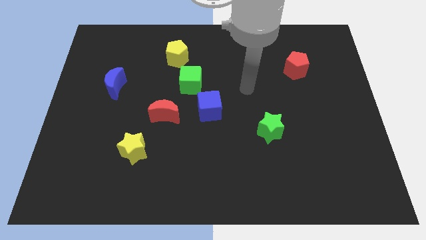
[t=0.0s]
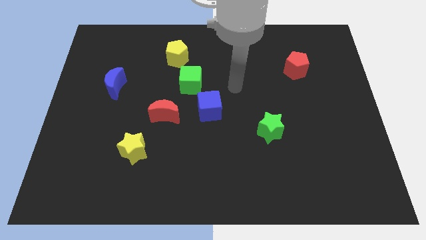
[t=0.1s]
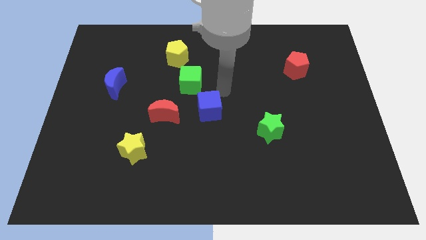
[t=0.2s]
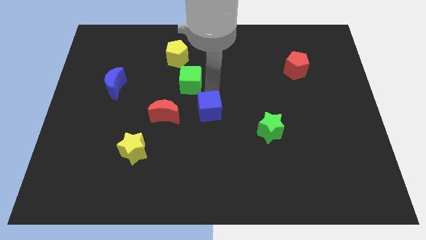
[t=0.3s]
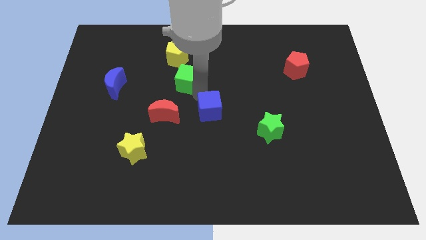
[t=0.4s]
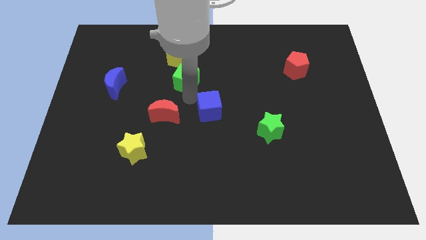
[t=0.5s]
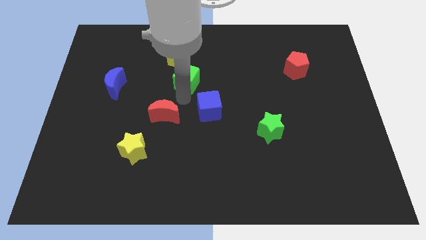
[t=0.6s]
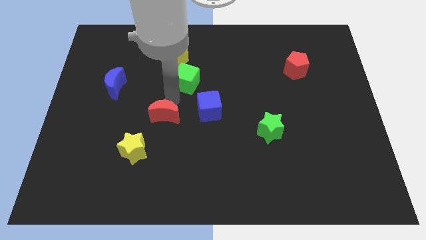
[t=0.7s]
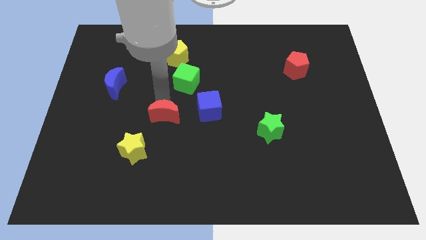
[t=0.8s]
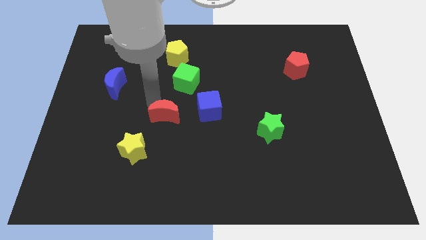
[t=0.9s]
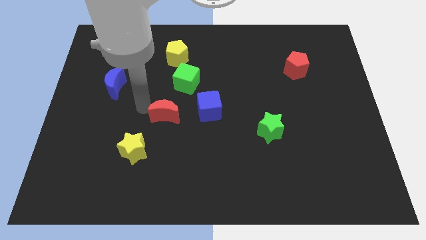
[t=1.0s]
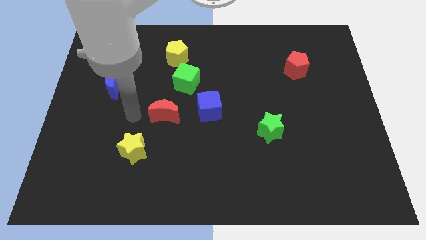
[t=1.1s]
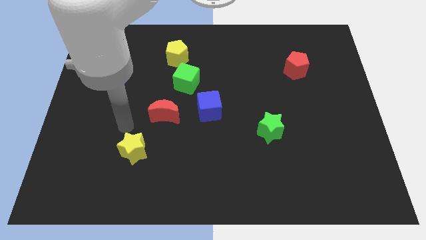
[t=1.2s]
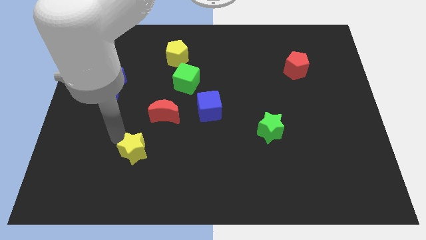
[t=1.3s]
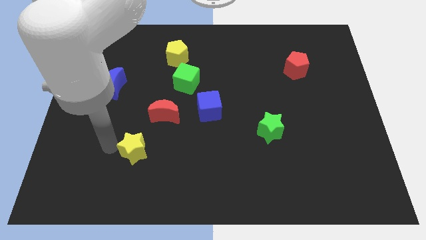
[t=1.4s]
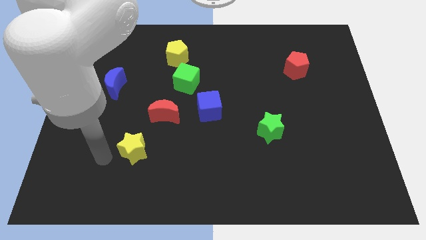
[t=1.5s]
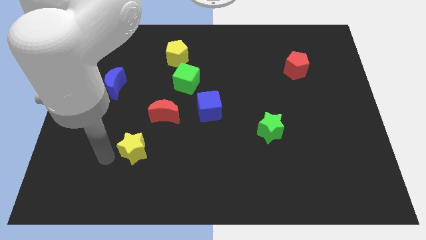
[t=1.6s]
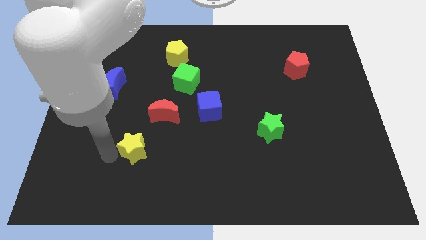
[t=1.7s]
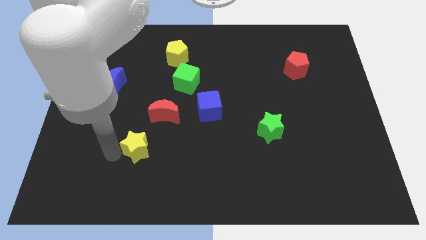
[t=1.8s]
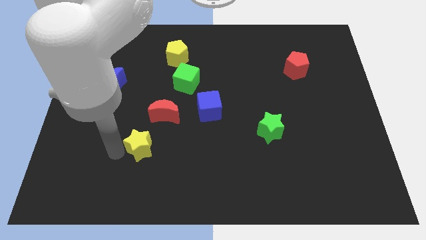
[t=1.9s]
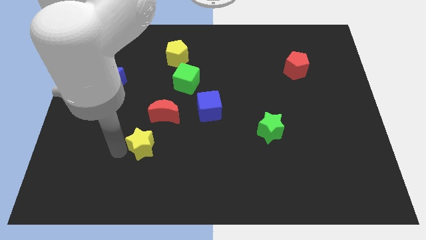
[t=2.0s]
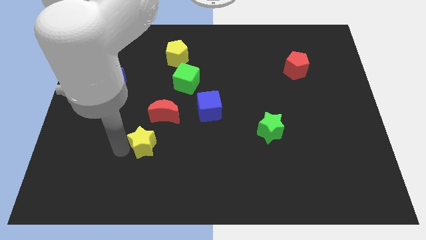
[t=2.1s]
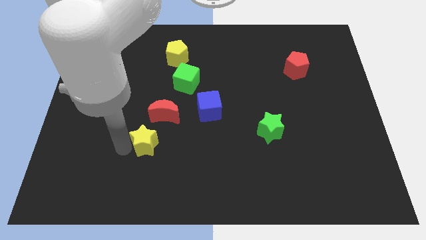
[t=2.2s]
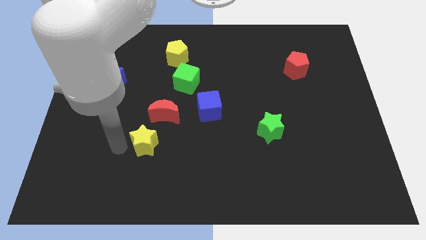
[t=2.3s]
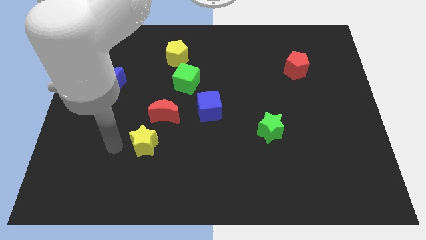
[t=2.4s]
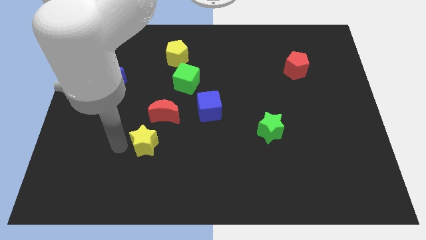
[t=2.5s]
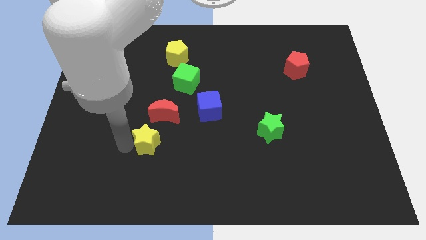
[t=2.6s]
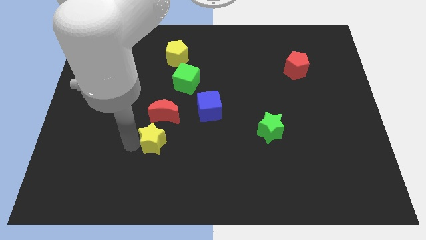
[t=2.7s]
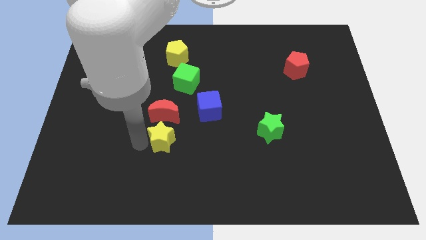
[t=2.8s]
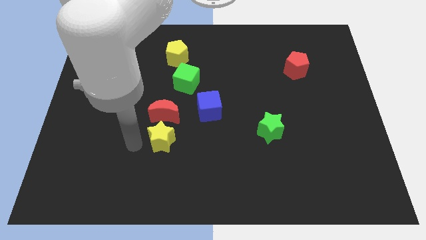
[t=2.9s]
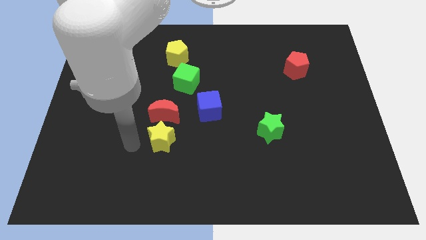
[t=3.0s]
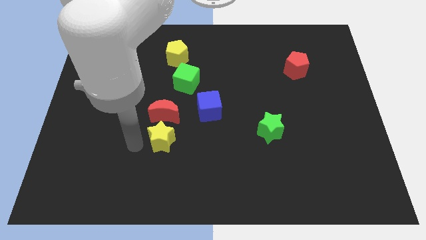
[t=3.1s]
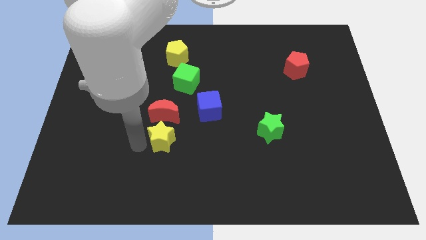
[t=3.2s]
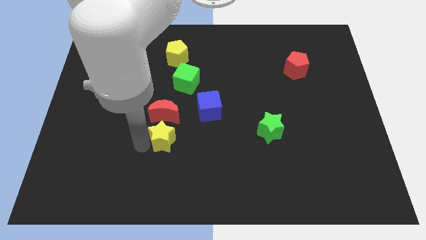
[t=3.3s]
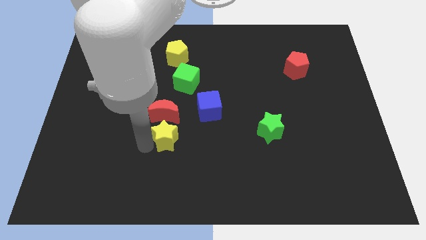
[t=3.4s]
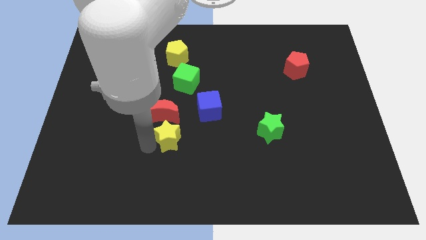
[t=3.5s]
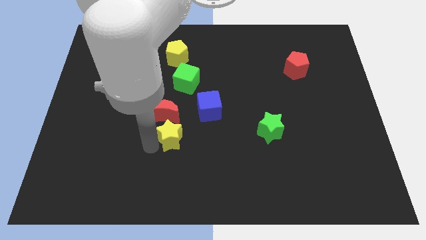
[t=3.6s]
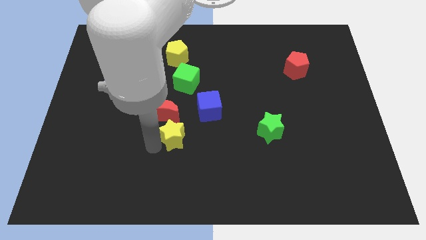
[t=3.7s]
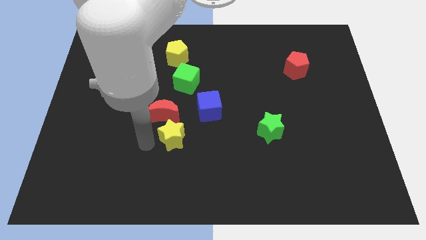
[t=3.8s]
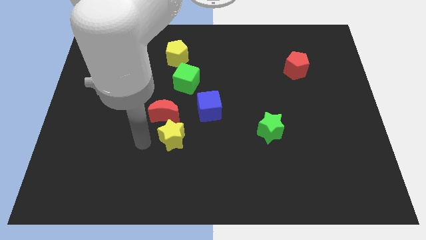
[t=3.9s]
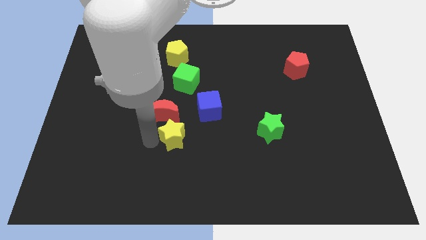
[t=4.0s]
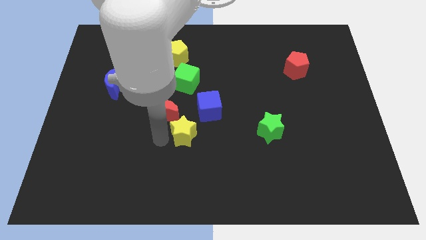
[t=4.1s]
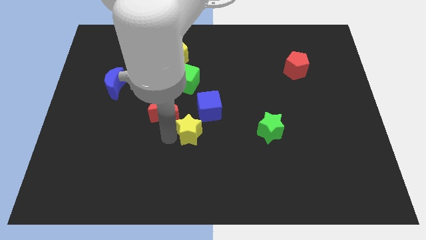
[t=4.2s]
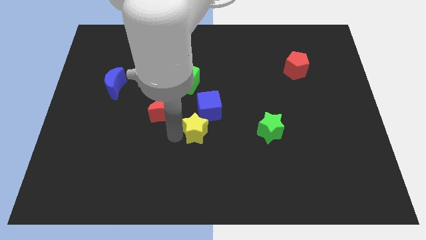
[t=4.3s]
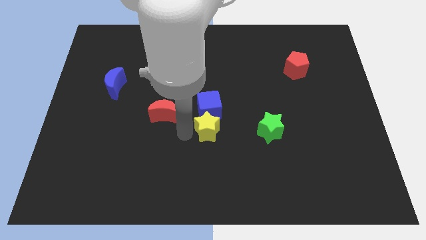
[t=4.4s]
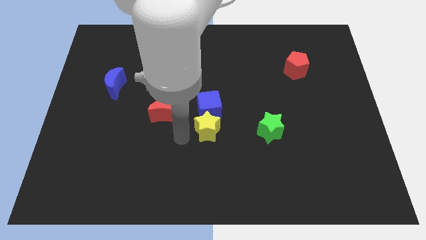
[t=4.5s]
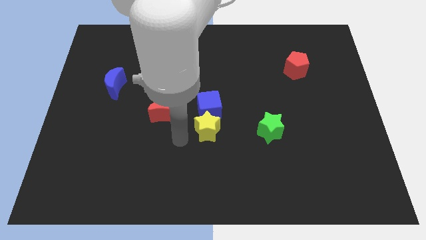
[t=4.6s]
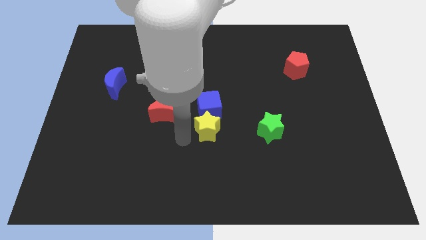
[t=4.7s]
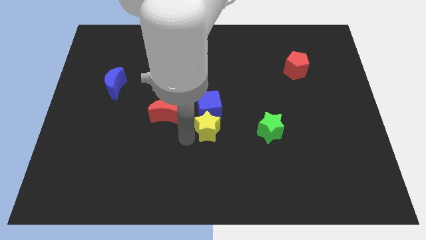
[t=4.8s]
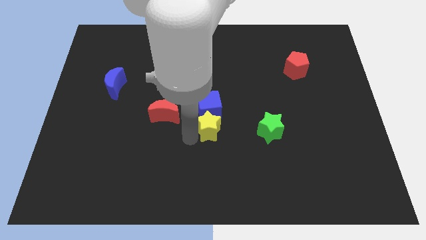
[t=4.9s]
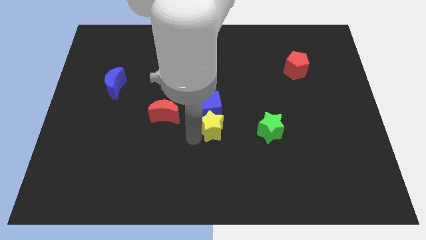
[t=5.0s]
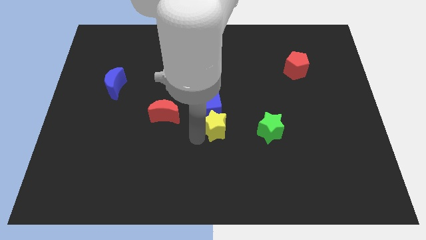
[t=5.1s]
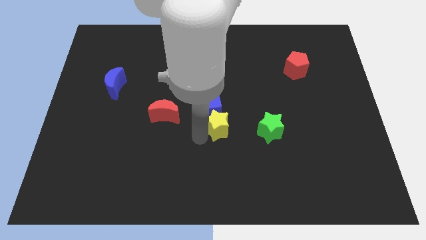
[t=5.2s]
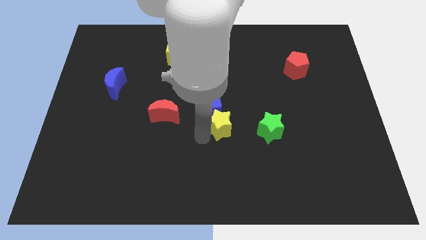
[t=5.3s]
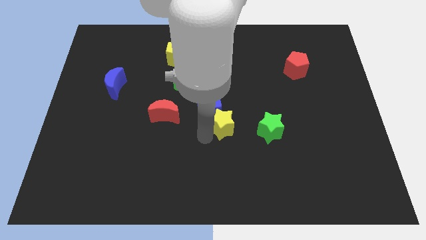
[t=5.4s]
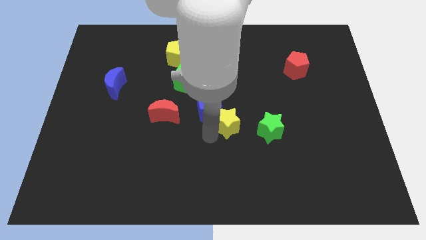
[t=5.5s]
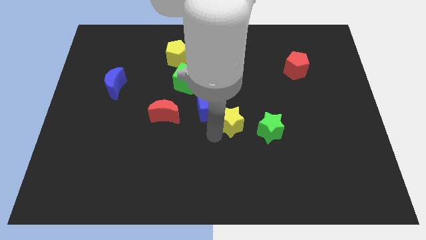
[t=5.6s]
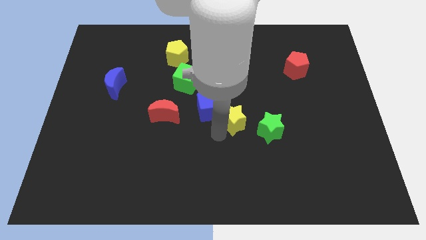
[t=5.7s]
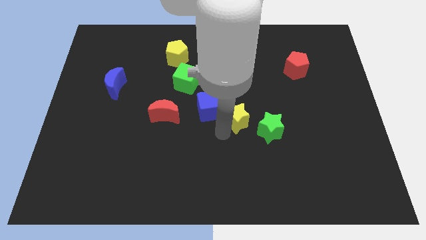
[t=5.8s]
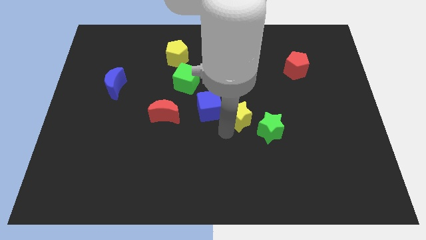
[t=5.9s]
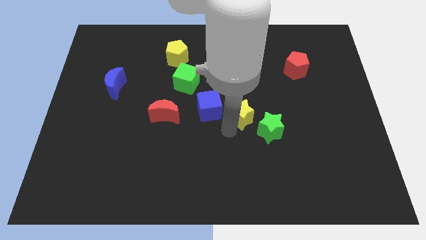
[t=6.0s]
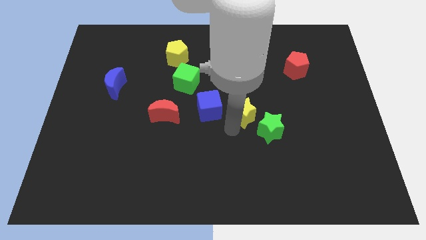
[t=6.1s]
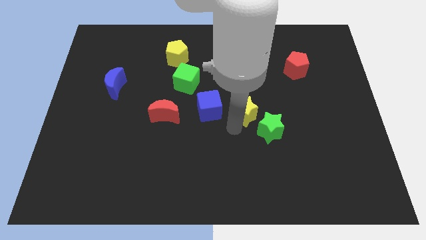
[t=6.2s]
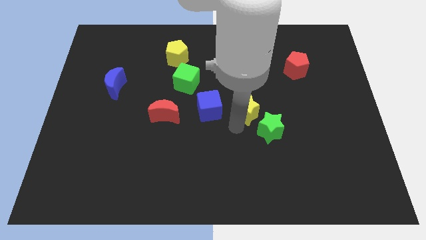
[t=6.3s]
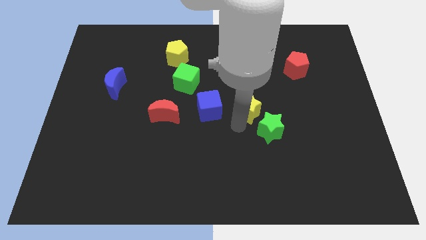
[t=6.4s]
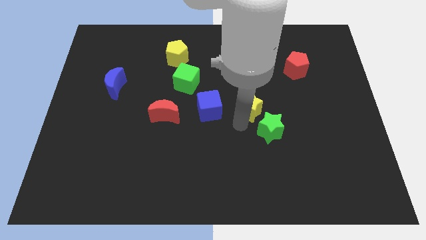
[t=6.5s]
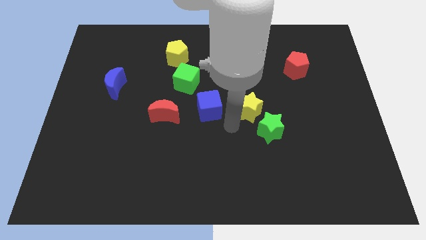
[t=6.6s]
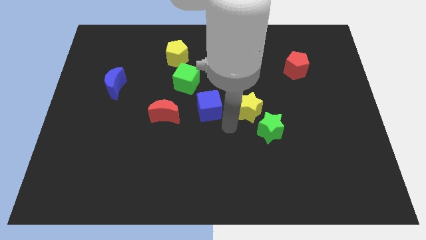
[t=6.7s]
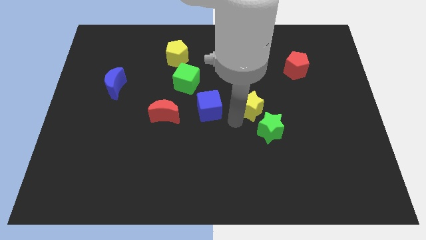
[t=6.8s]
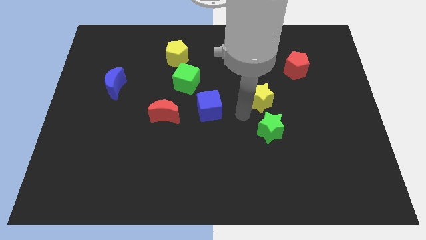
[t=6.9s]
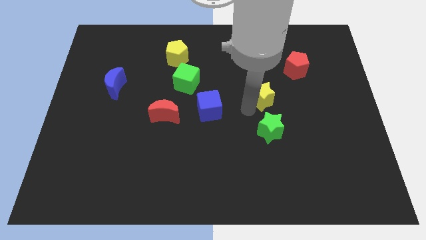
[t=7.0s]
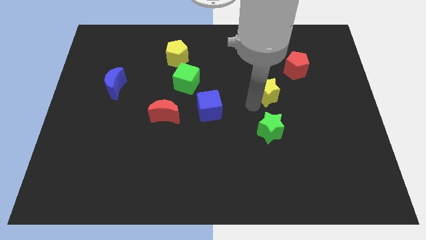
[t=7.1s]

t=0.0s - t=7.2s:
push the yellow star diagonally down and to the left of the red pentagon
